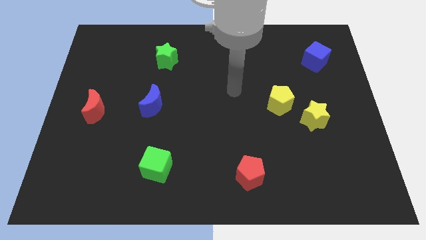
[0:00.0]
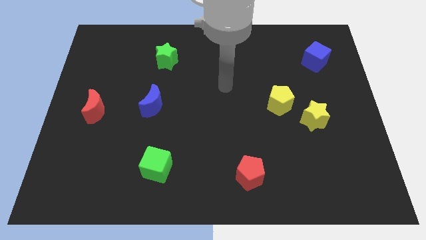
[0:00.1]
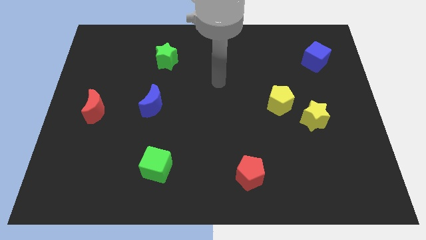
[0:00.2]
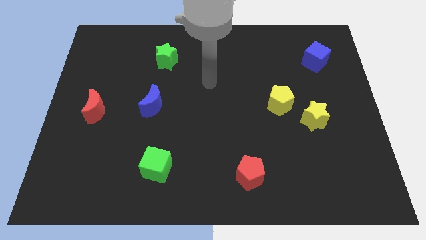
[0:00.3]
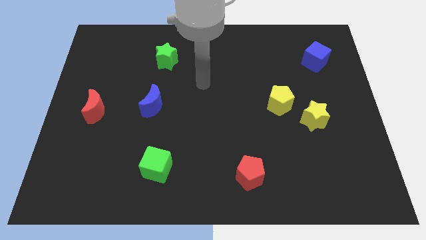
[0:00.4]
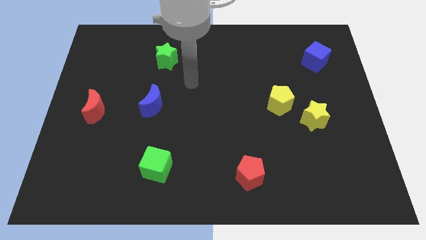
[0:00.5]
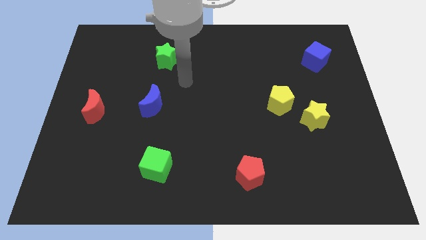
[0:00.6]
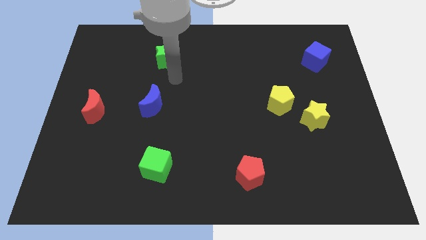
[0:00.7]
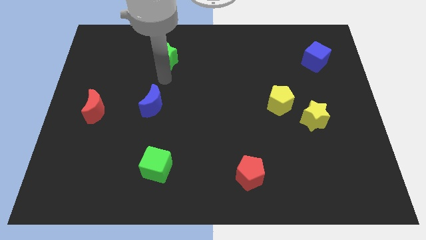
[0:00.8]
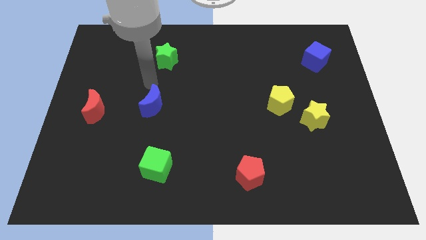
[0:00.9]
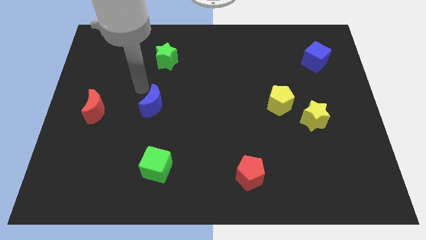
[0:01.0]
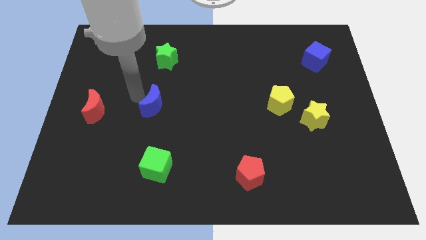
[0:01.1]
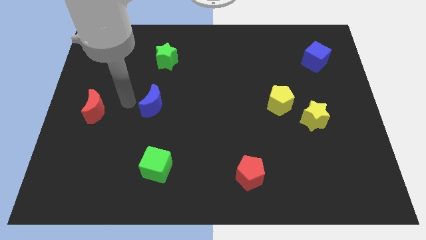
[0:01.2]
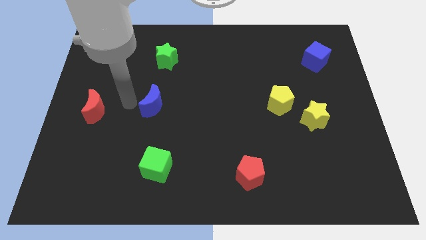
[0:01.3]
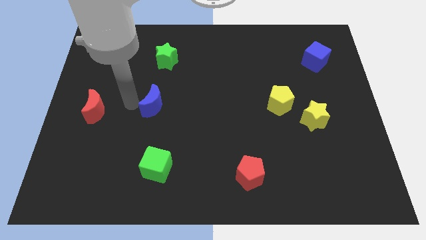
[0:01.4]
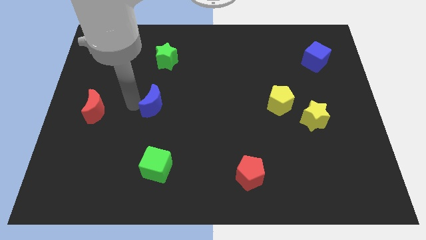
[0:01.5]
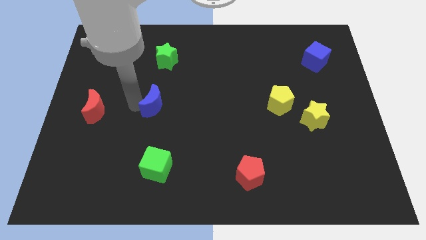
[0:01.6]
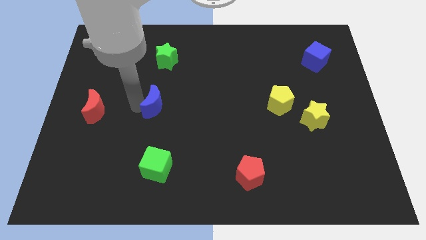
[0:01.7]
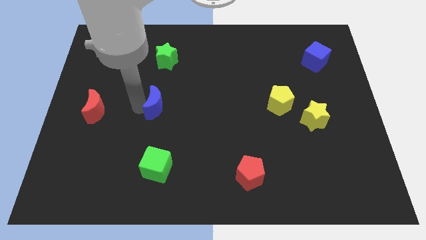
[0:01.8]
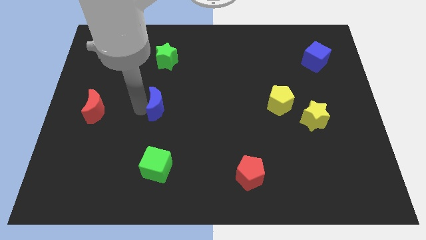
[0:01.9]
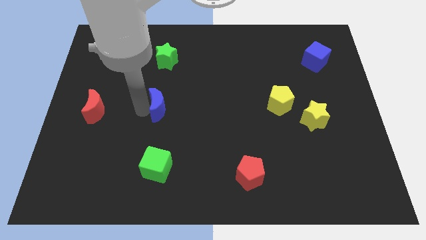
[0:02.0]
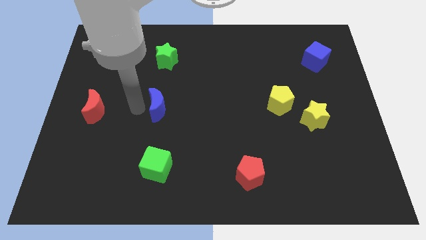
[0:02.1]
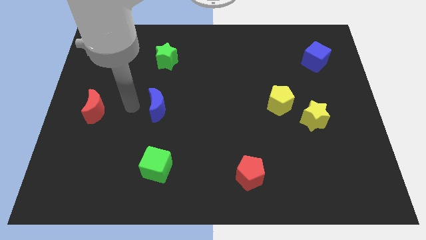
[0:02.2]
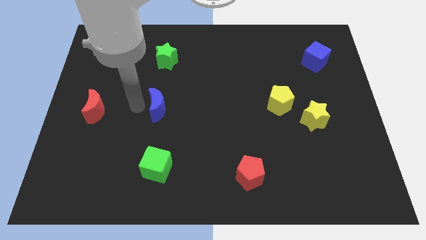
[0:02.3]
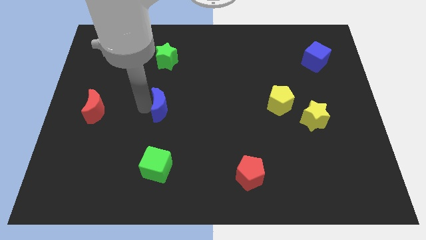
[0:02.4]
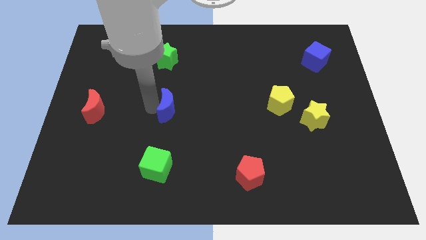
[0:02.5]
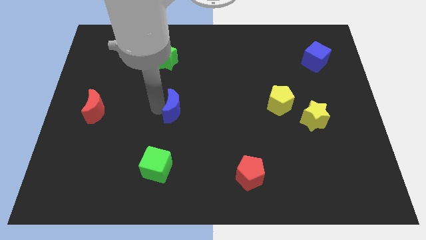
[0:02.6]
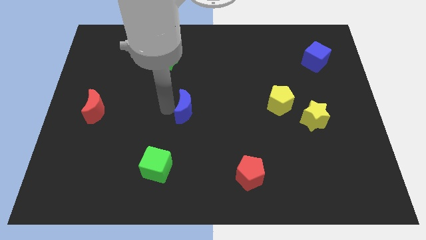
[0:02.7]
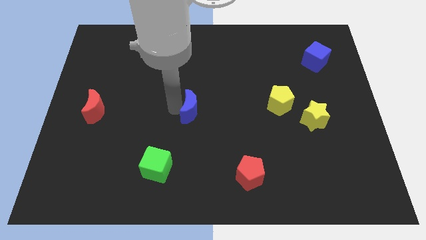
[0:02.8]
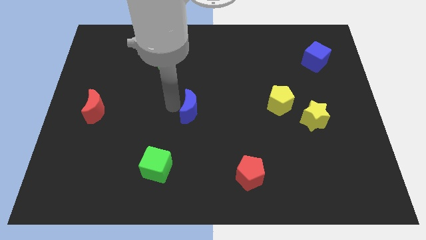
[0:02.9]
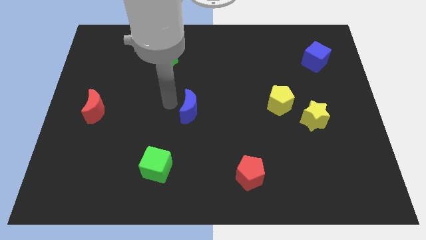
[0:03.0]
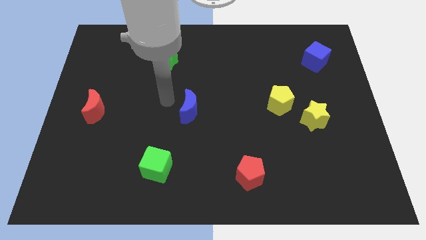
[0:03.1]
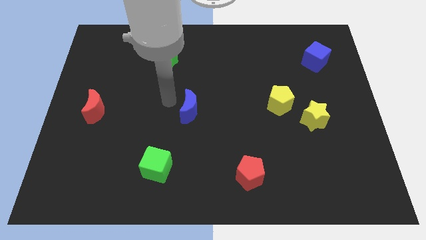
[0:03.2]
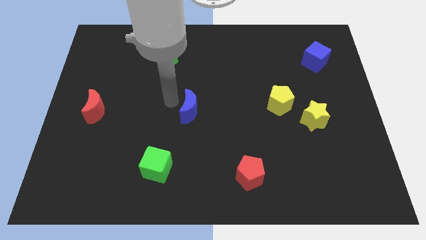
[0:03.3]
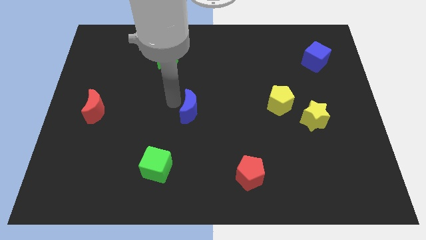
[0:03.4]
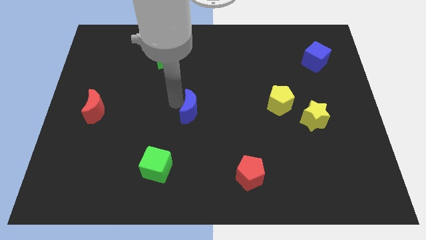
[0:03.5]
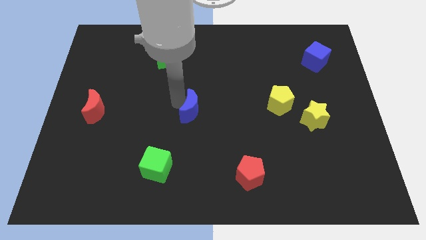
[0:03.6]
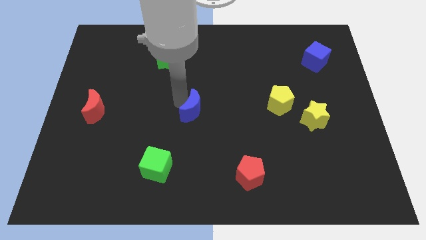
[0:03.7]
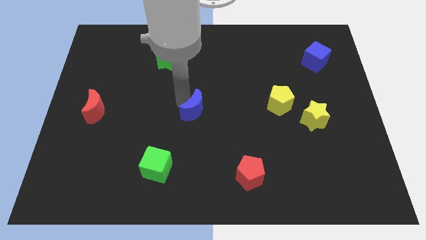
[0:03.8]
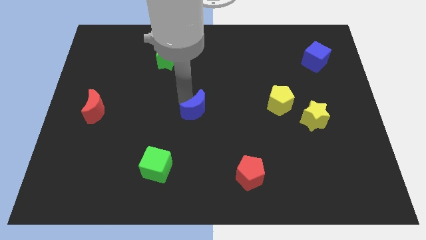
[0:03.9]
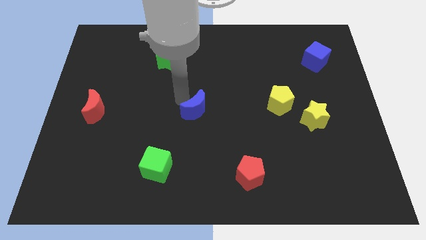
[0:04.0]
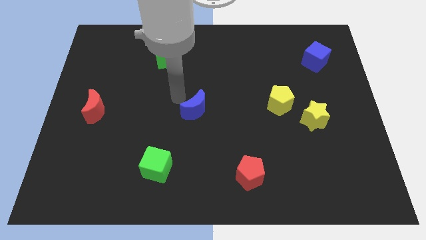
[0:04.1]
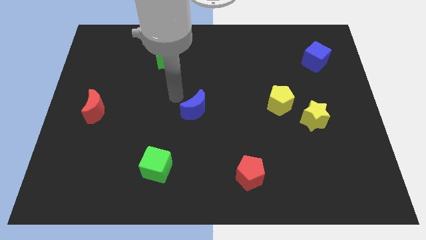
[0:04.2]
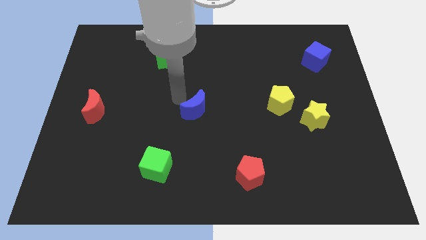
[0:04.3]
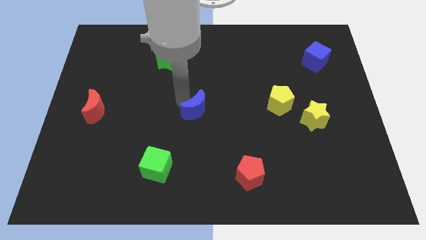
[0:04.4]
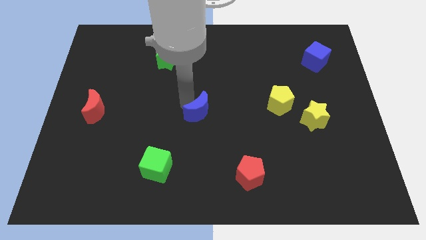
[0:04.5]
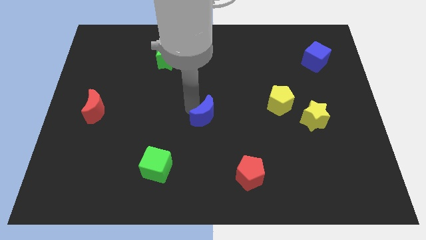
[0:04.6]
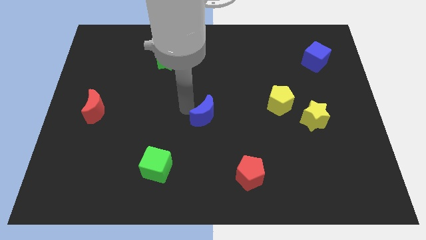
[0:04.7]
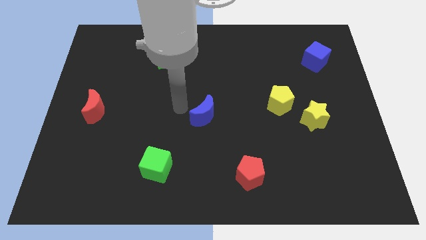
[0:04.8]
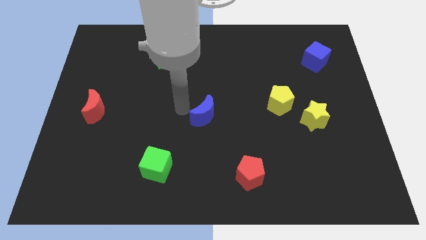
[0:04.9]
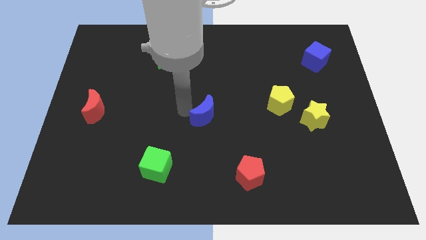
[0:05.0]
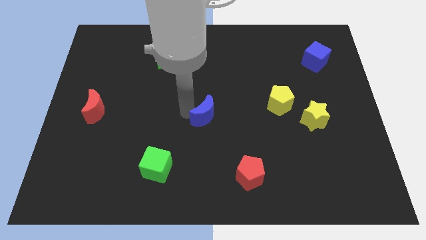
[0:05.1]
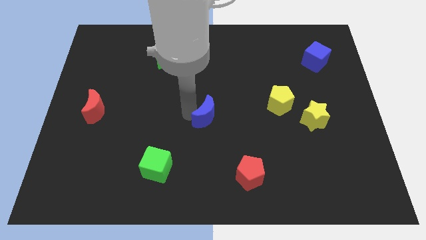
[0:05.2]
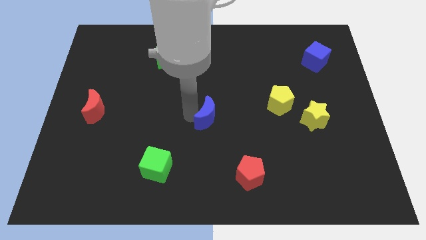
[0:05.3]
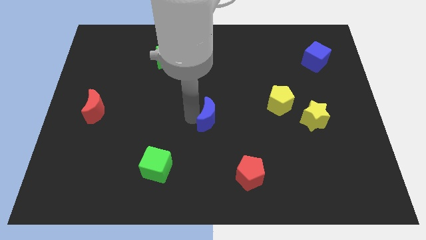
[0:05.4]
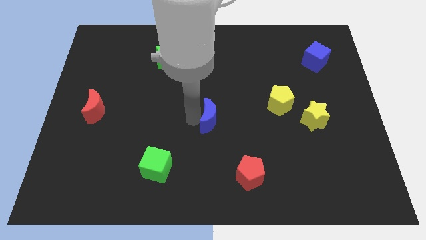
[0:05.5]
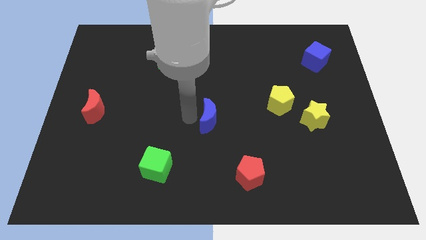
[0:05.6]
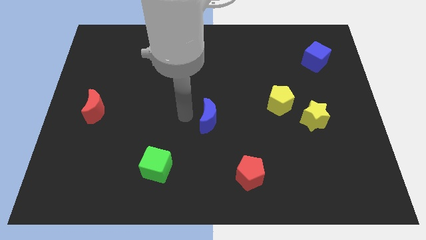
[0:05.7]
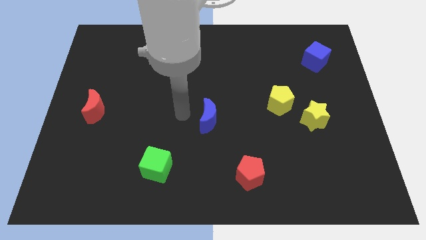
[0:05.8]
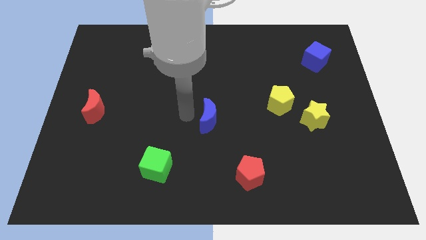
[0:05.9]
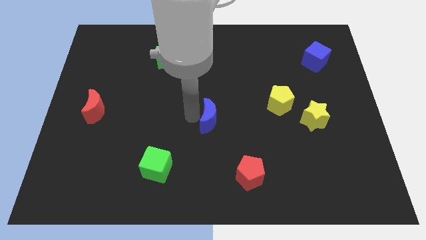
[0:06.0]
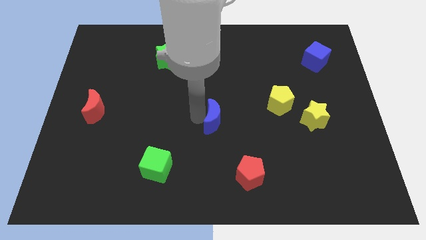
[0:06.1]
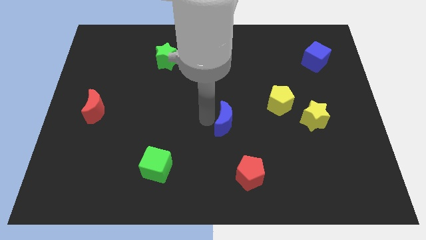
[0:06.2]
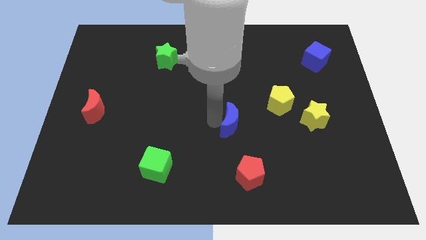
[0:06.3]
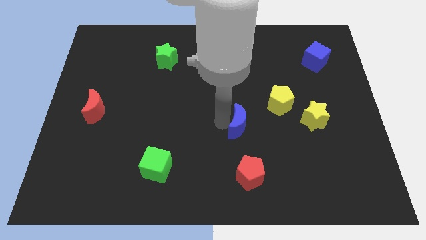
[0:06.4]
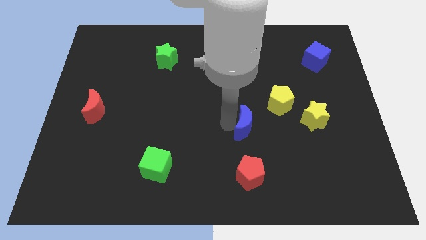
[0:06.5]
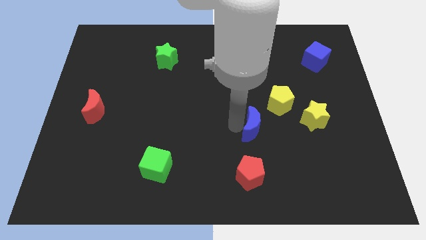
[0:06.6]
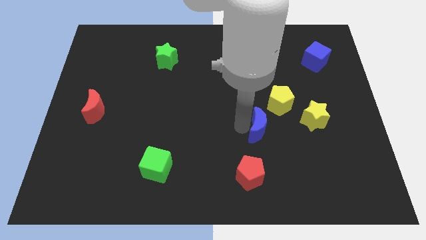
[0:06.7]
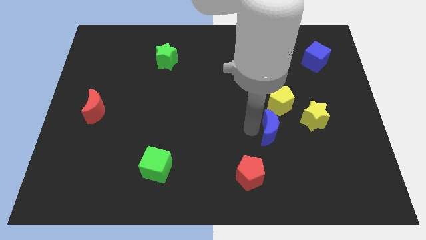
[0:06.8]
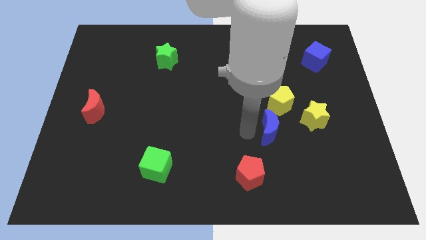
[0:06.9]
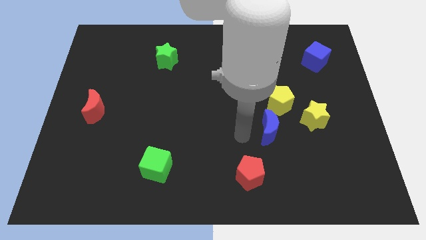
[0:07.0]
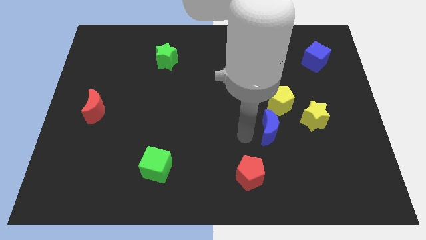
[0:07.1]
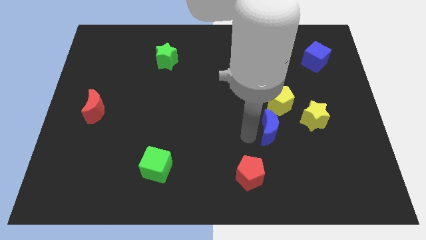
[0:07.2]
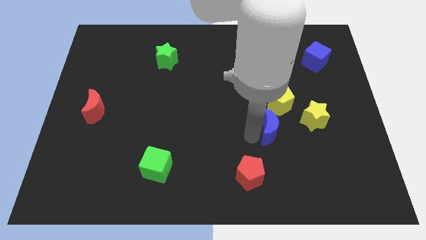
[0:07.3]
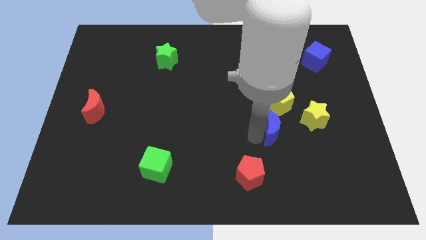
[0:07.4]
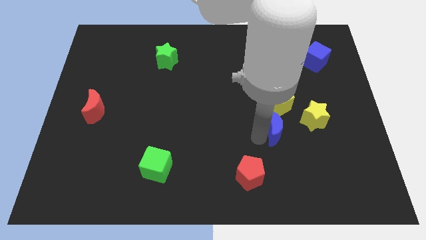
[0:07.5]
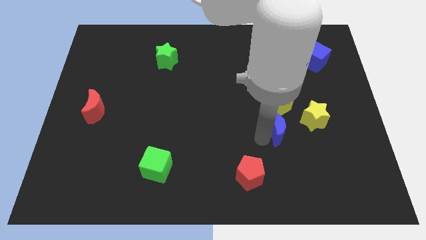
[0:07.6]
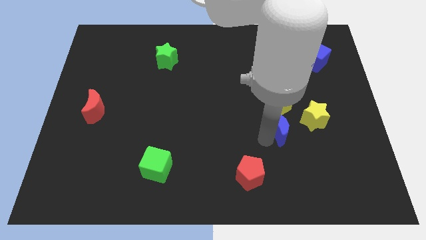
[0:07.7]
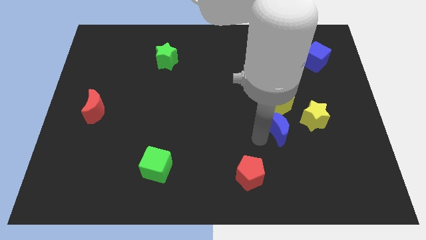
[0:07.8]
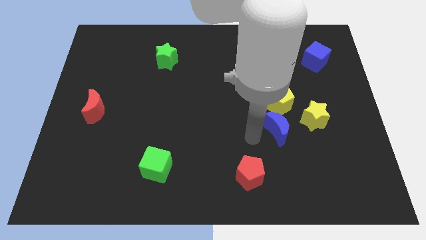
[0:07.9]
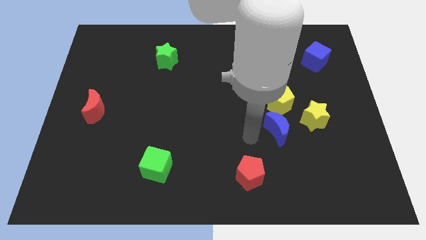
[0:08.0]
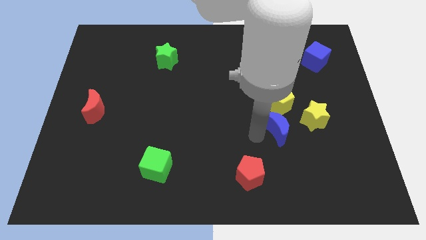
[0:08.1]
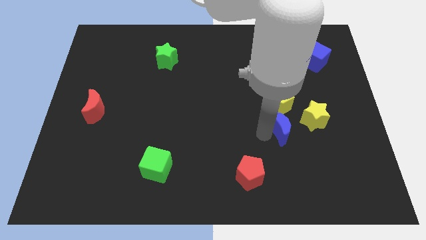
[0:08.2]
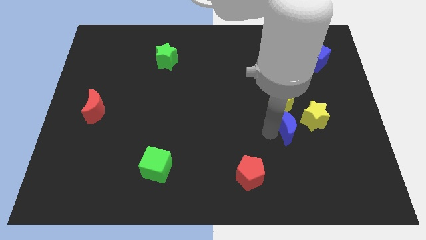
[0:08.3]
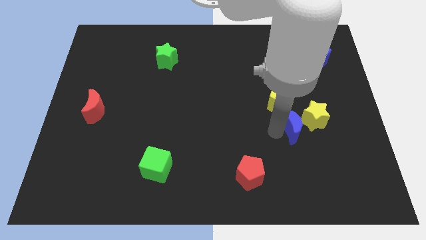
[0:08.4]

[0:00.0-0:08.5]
move the blue moon close to the yellow star
